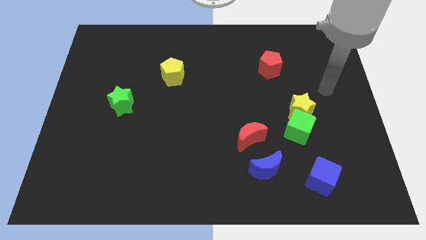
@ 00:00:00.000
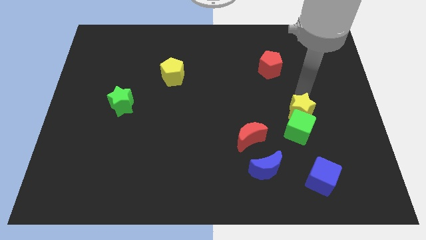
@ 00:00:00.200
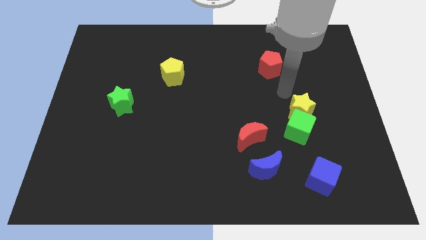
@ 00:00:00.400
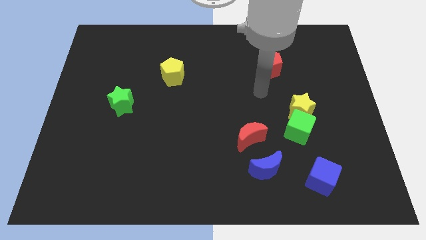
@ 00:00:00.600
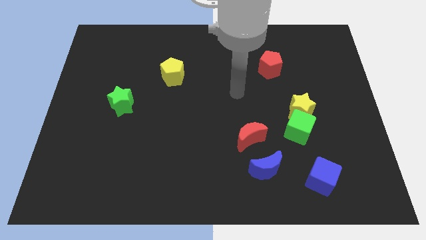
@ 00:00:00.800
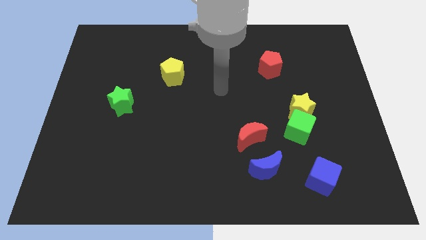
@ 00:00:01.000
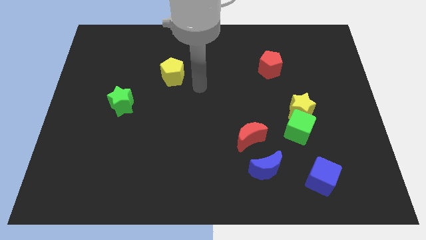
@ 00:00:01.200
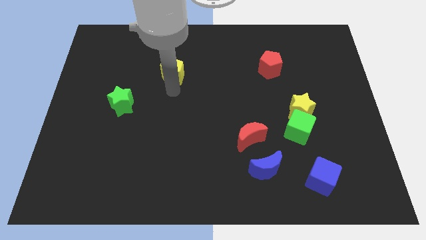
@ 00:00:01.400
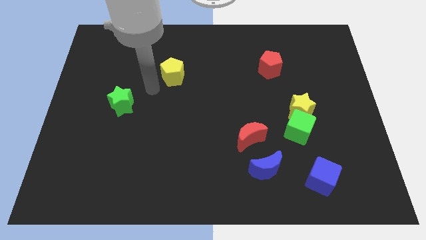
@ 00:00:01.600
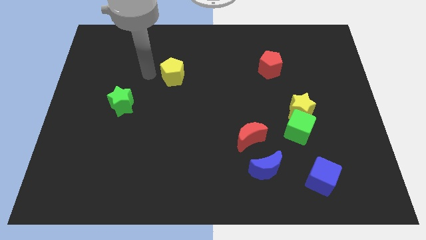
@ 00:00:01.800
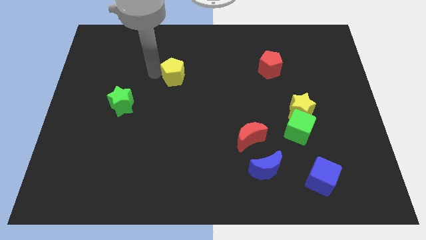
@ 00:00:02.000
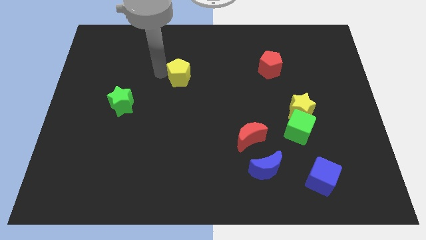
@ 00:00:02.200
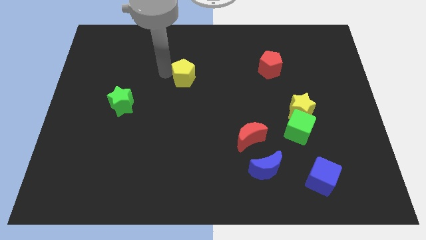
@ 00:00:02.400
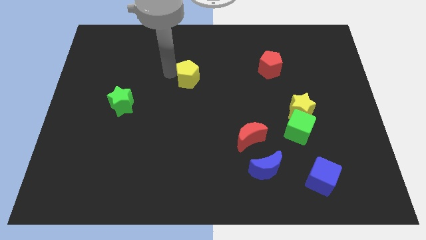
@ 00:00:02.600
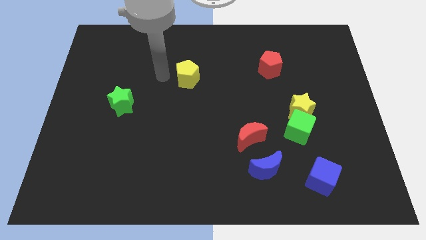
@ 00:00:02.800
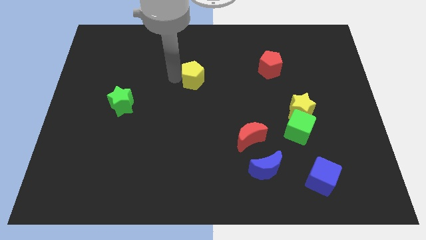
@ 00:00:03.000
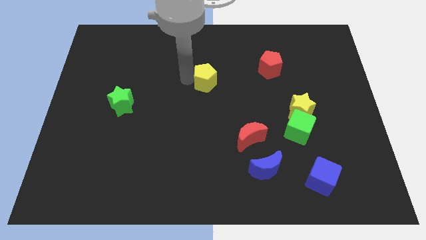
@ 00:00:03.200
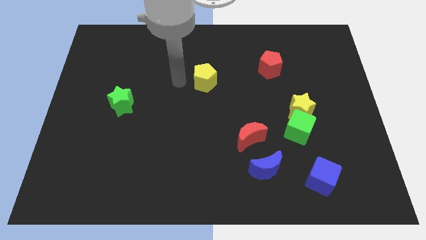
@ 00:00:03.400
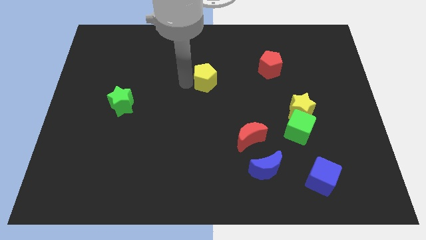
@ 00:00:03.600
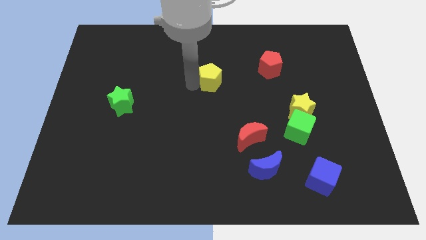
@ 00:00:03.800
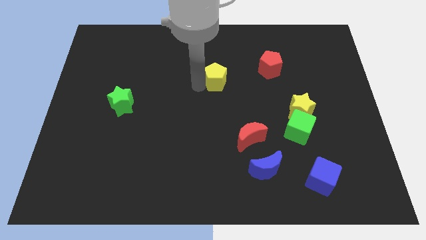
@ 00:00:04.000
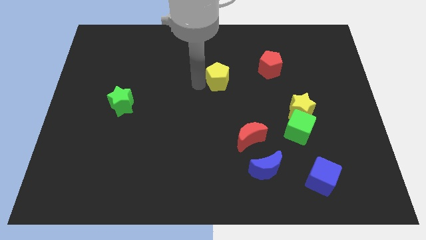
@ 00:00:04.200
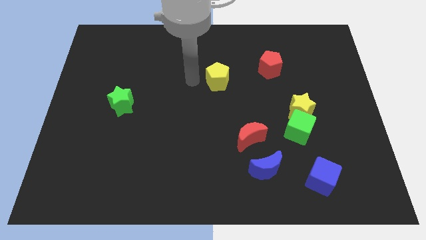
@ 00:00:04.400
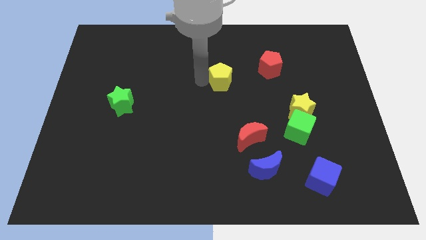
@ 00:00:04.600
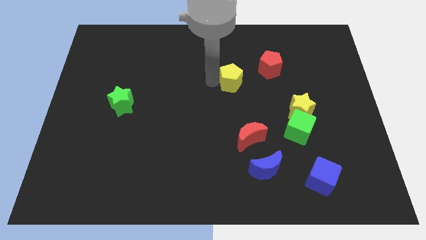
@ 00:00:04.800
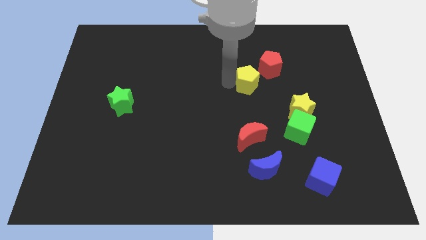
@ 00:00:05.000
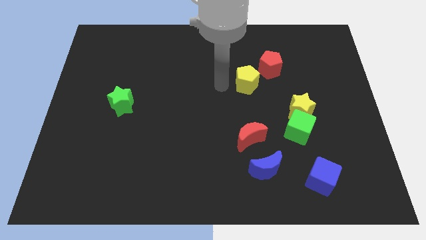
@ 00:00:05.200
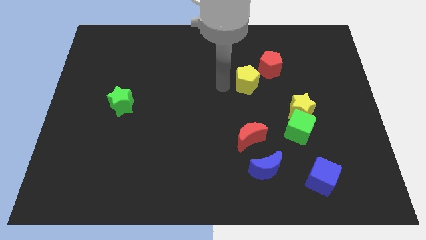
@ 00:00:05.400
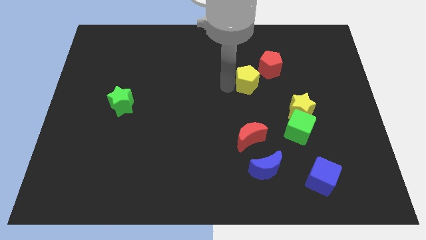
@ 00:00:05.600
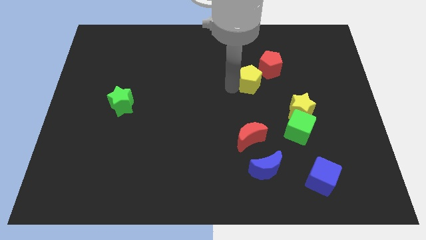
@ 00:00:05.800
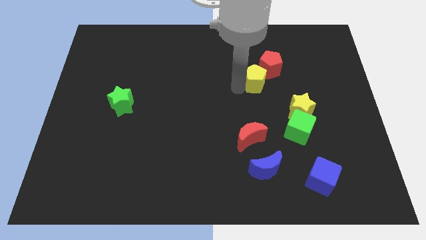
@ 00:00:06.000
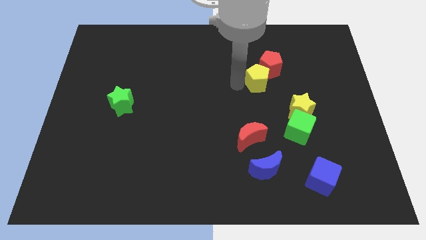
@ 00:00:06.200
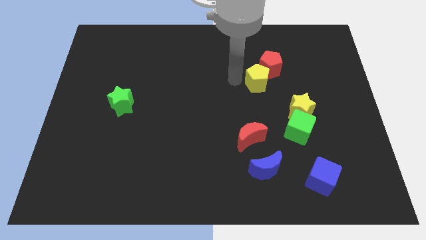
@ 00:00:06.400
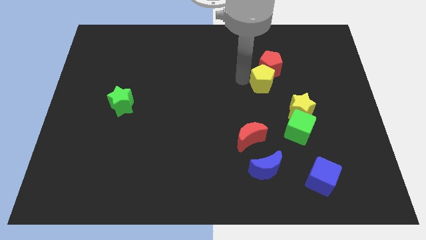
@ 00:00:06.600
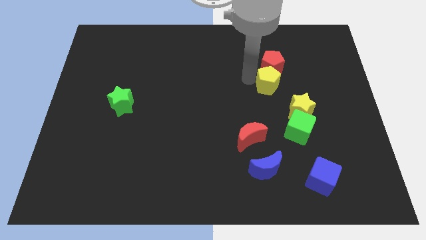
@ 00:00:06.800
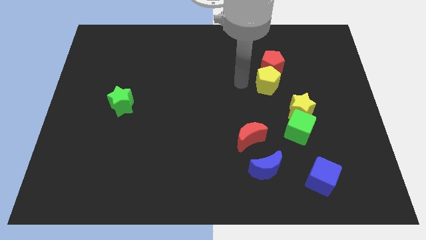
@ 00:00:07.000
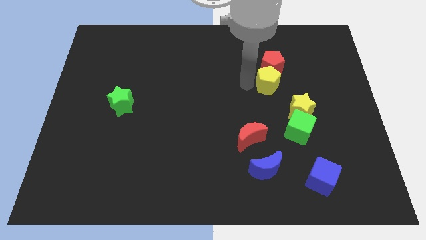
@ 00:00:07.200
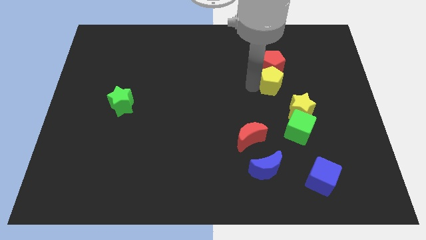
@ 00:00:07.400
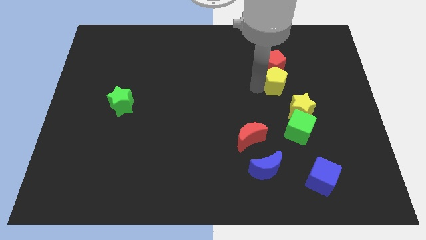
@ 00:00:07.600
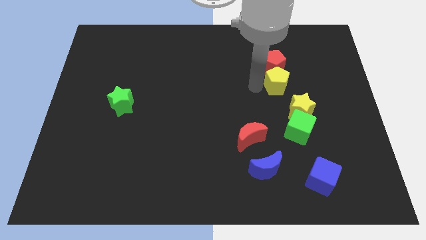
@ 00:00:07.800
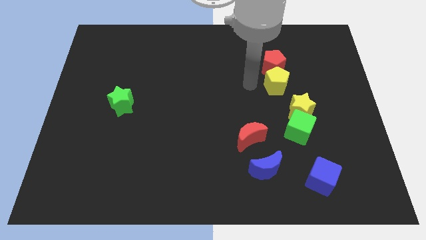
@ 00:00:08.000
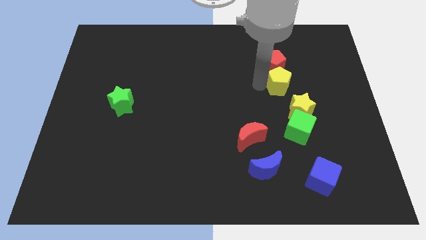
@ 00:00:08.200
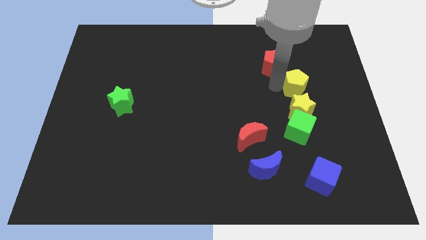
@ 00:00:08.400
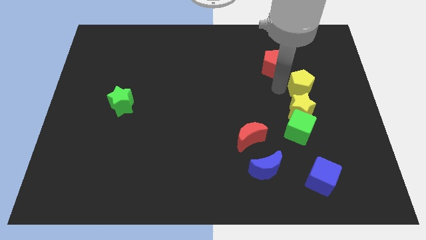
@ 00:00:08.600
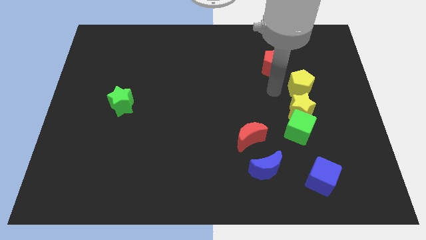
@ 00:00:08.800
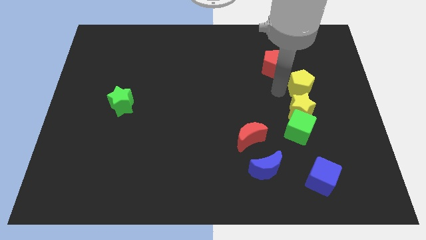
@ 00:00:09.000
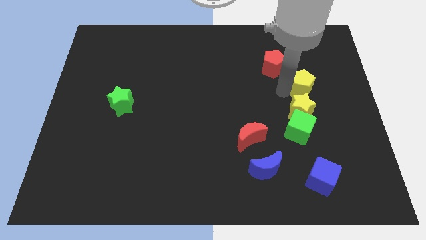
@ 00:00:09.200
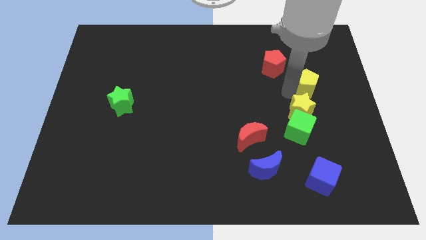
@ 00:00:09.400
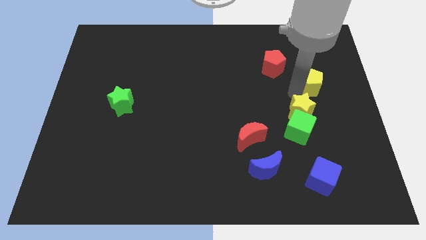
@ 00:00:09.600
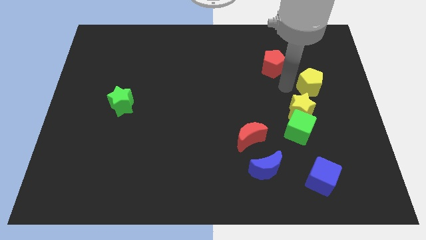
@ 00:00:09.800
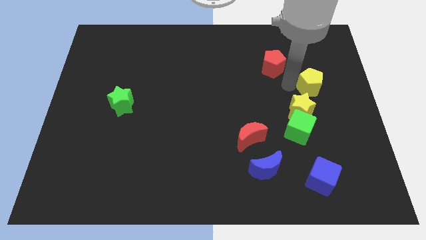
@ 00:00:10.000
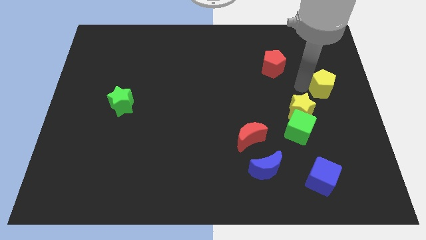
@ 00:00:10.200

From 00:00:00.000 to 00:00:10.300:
put the yellow pentagon to the right side

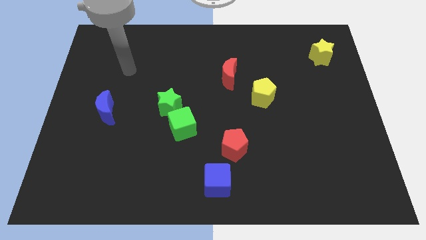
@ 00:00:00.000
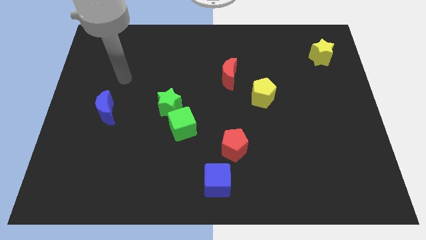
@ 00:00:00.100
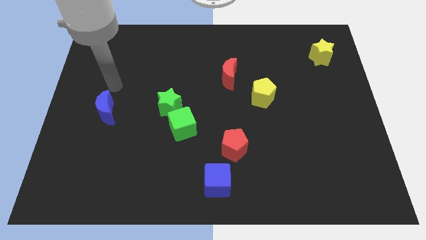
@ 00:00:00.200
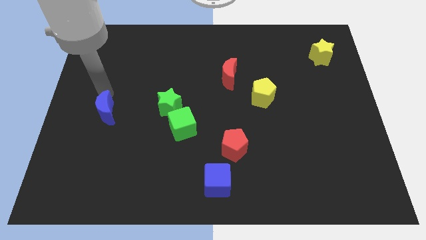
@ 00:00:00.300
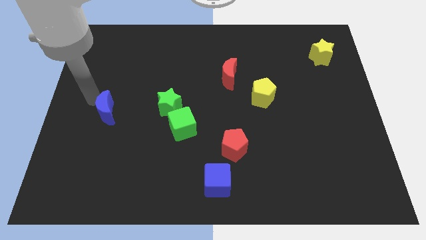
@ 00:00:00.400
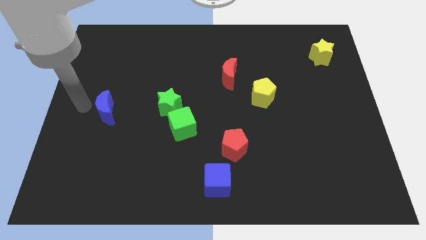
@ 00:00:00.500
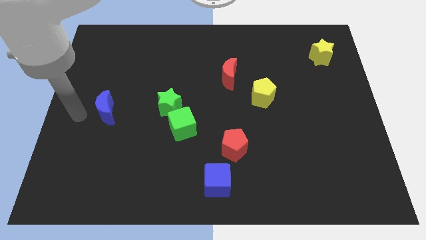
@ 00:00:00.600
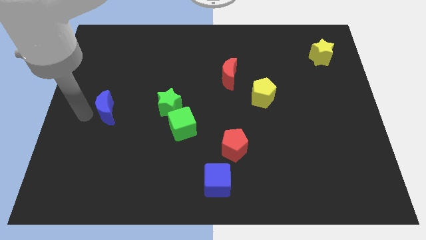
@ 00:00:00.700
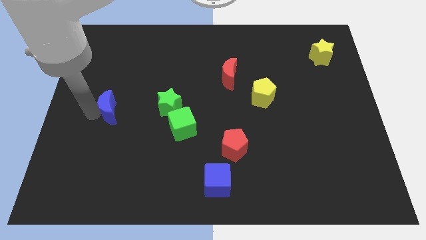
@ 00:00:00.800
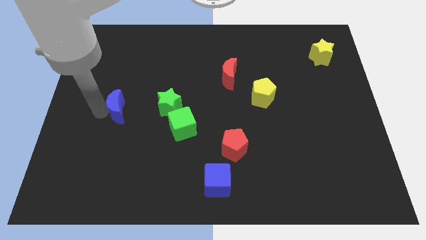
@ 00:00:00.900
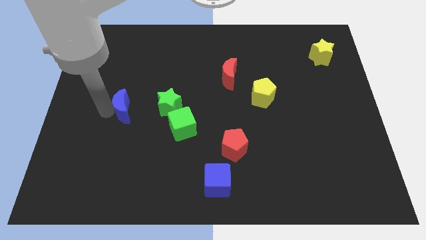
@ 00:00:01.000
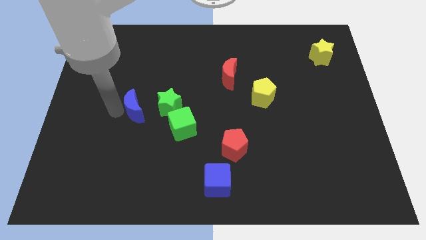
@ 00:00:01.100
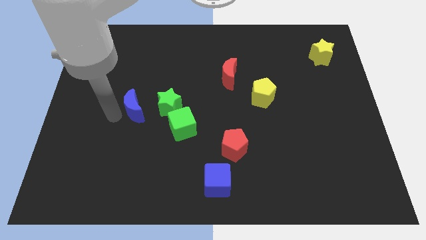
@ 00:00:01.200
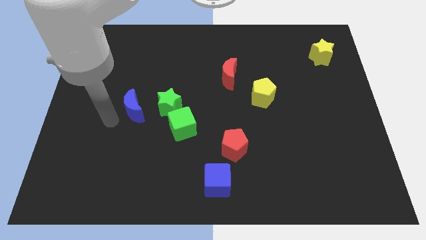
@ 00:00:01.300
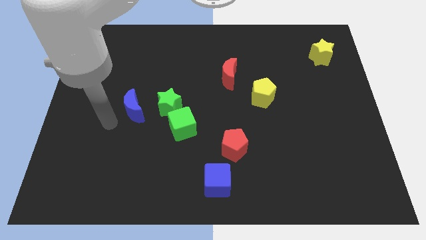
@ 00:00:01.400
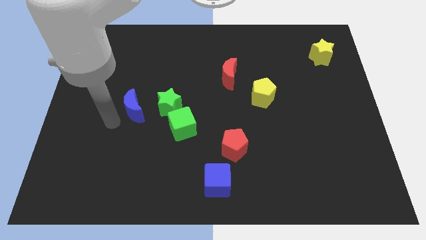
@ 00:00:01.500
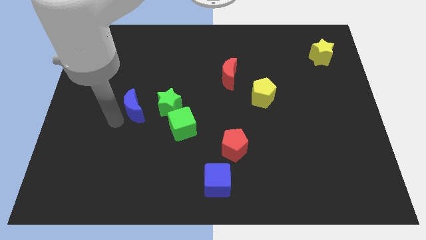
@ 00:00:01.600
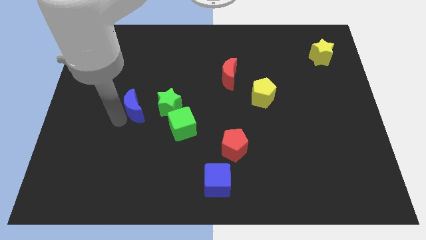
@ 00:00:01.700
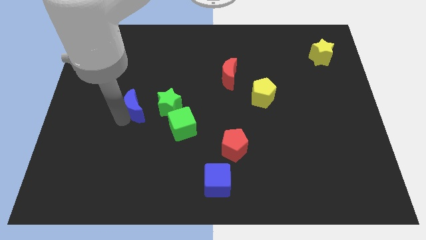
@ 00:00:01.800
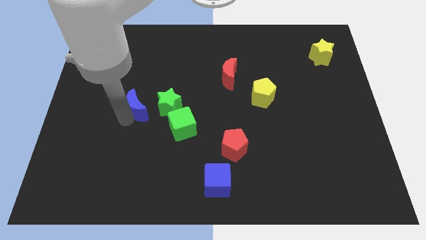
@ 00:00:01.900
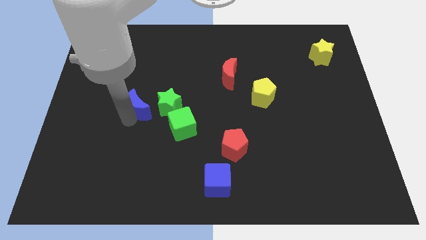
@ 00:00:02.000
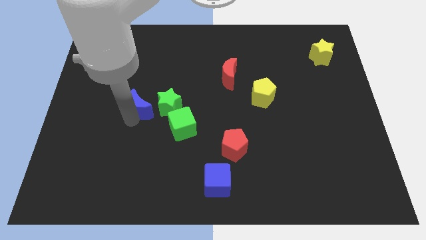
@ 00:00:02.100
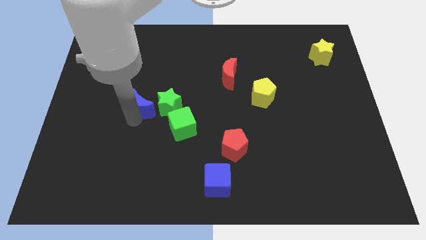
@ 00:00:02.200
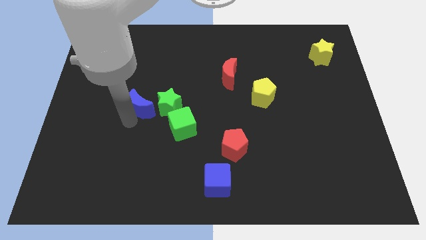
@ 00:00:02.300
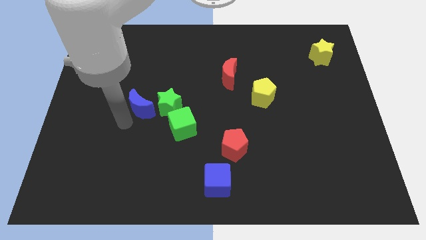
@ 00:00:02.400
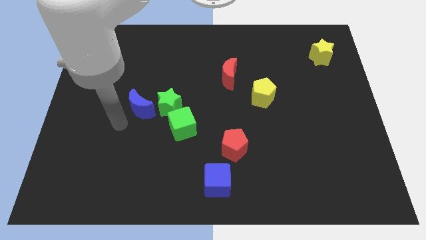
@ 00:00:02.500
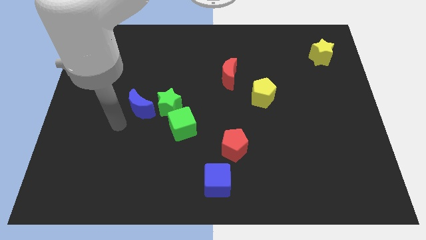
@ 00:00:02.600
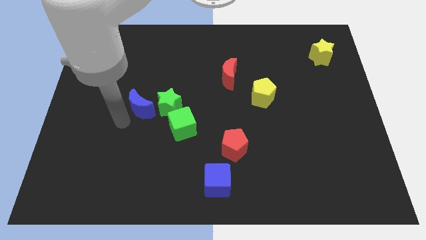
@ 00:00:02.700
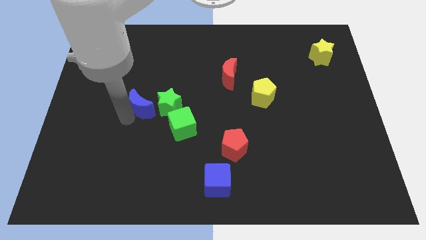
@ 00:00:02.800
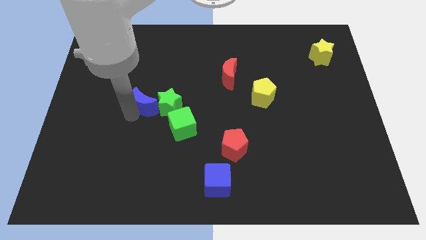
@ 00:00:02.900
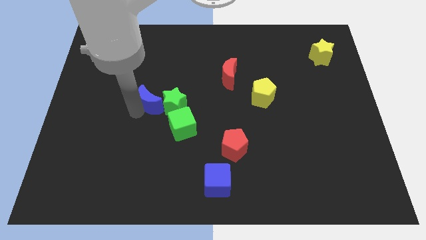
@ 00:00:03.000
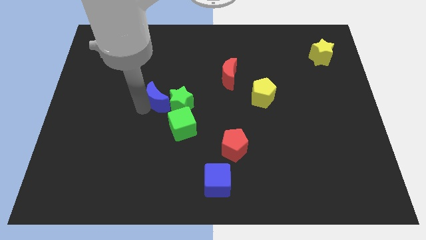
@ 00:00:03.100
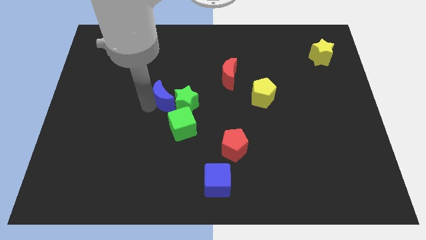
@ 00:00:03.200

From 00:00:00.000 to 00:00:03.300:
slide the blue moon to the middle of the board
